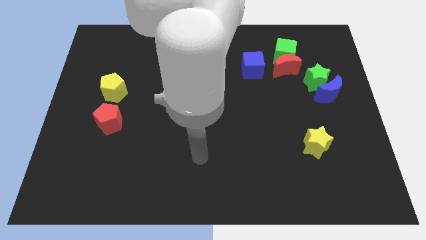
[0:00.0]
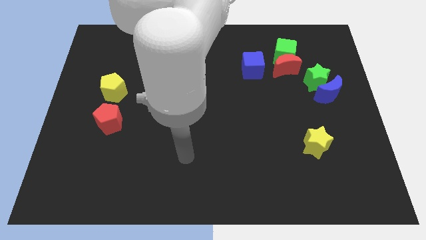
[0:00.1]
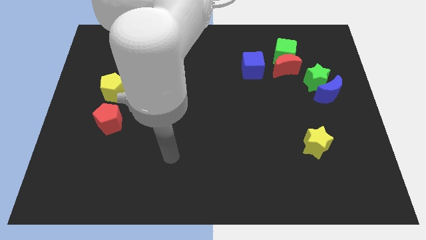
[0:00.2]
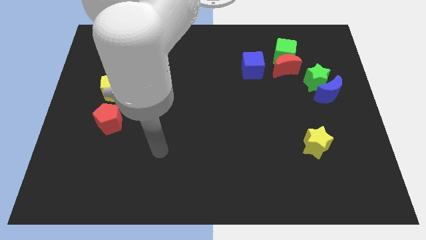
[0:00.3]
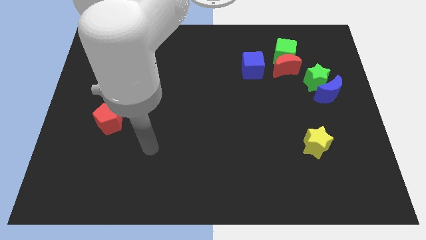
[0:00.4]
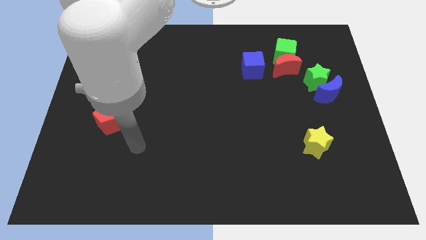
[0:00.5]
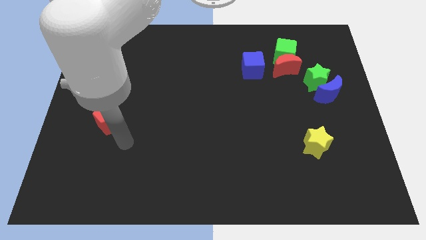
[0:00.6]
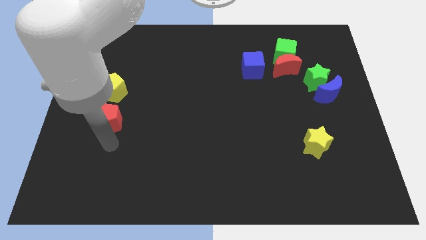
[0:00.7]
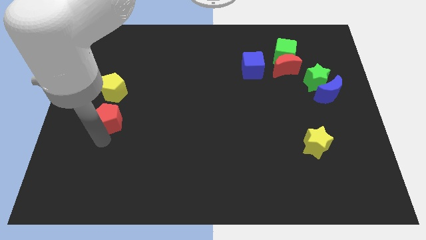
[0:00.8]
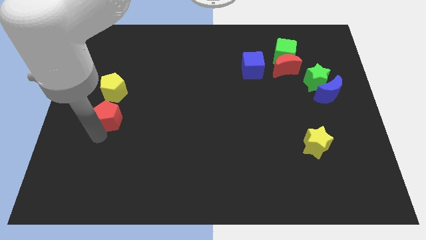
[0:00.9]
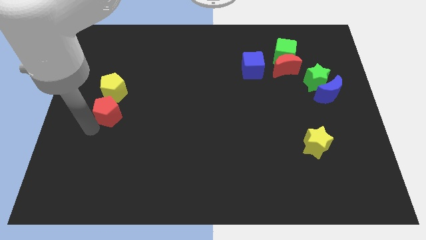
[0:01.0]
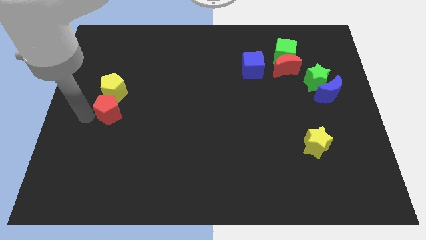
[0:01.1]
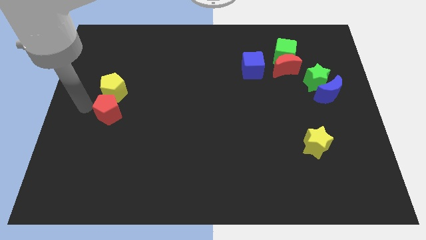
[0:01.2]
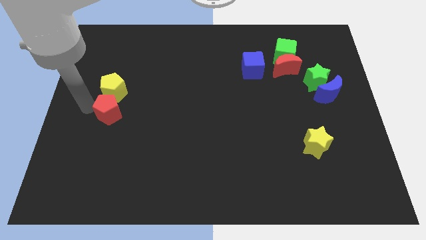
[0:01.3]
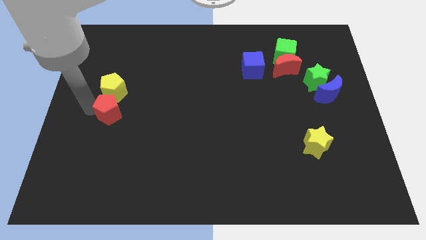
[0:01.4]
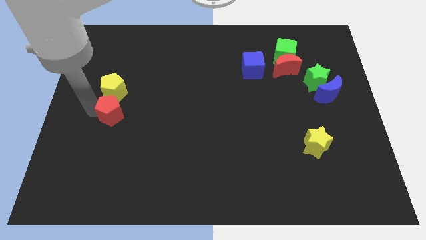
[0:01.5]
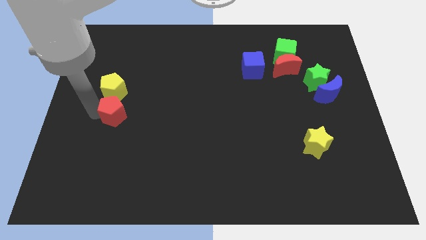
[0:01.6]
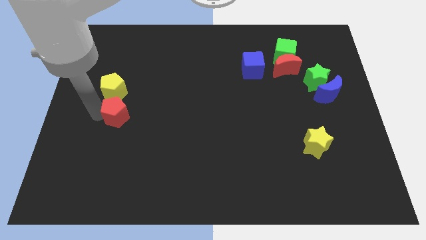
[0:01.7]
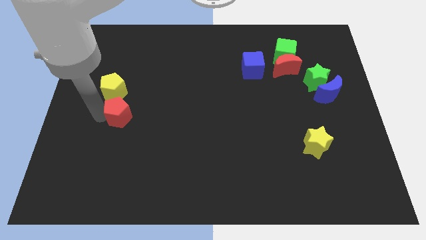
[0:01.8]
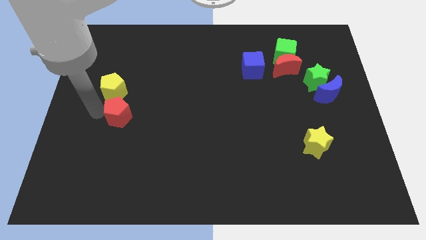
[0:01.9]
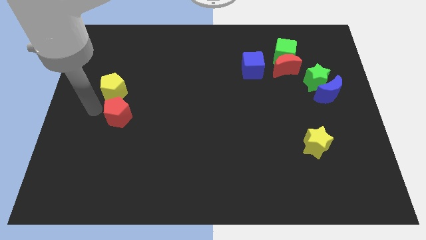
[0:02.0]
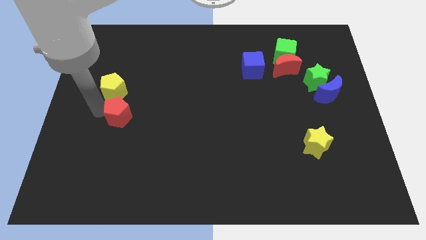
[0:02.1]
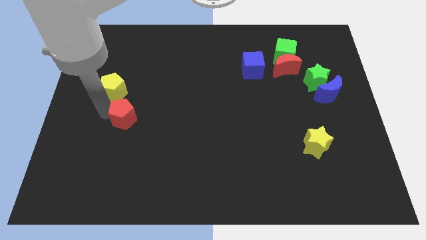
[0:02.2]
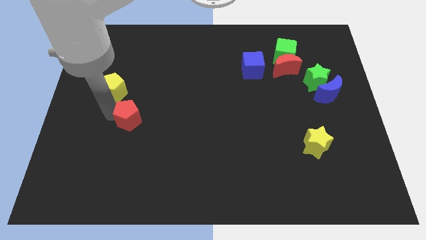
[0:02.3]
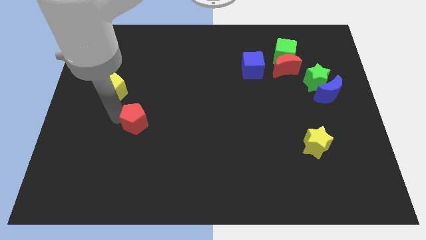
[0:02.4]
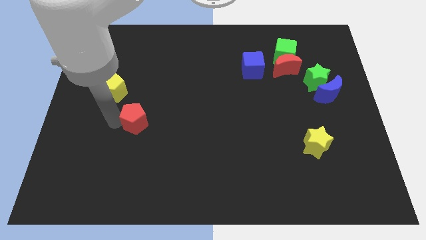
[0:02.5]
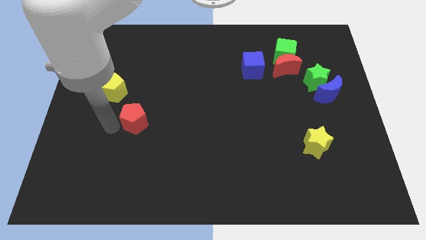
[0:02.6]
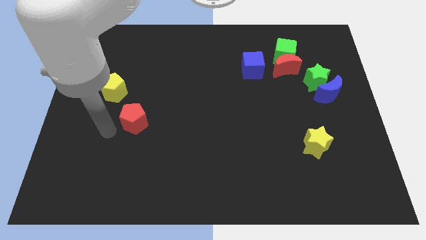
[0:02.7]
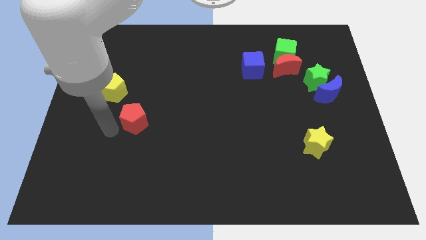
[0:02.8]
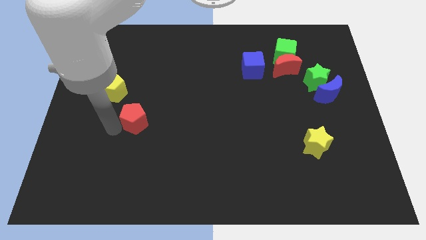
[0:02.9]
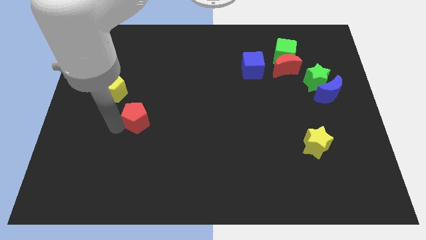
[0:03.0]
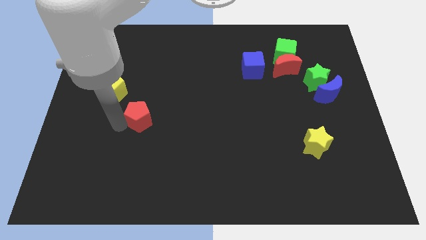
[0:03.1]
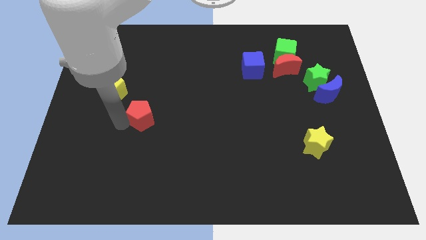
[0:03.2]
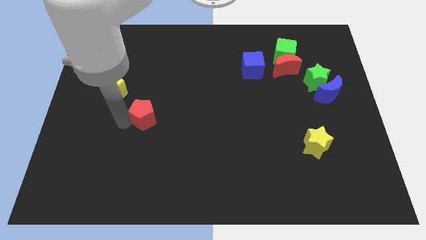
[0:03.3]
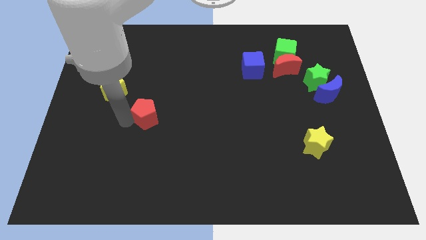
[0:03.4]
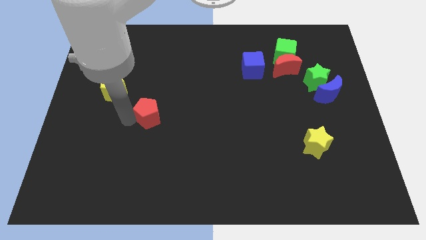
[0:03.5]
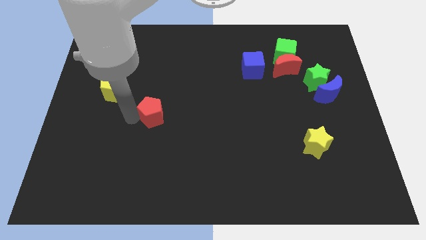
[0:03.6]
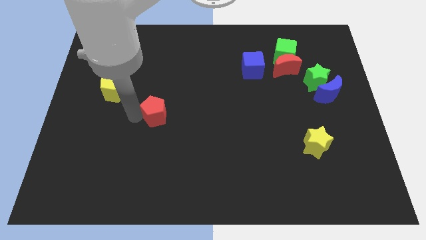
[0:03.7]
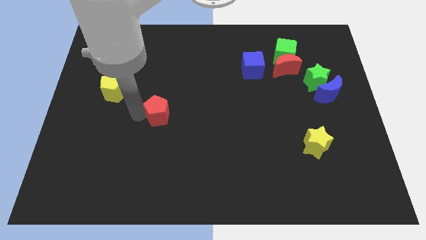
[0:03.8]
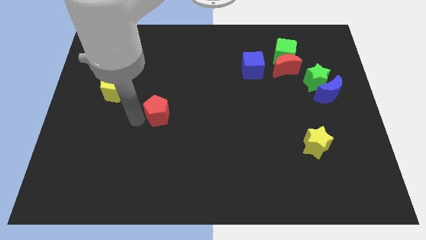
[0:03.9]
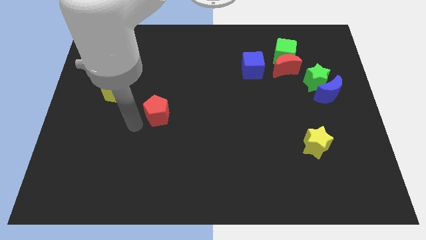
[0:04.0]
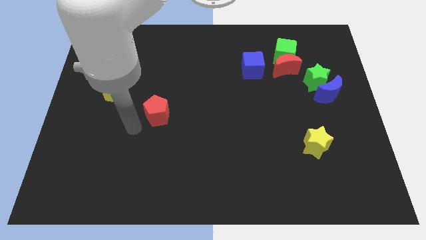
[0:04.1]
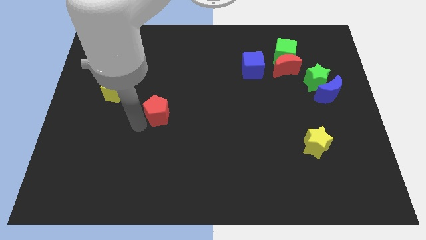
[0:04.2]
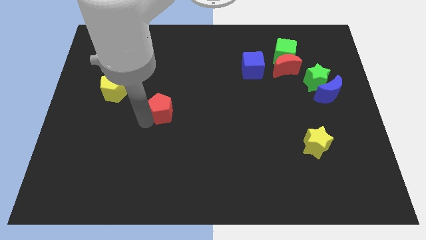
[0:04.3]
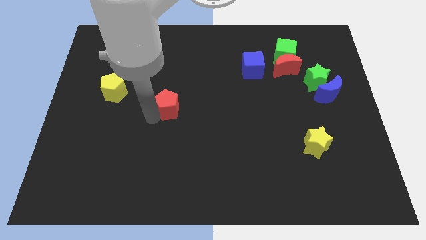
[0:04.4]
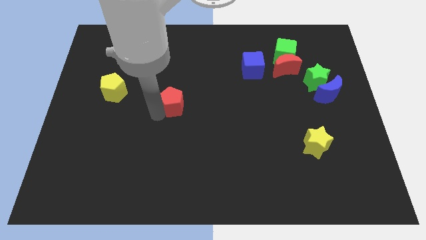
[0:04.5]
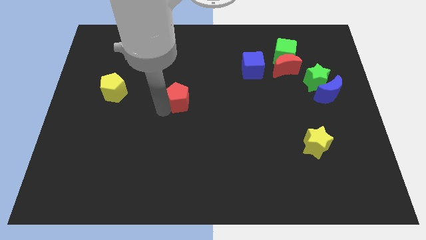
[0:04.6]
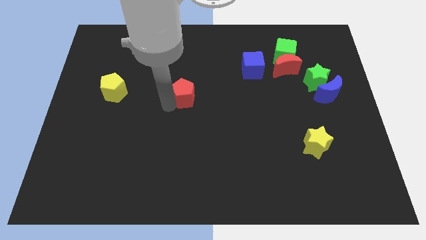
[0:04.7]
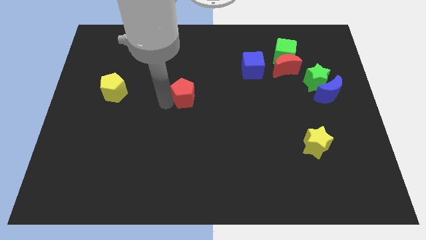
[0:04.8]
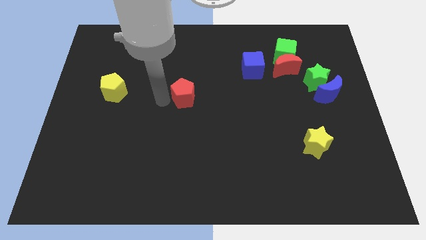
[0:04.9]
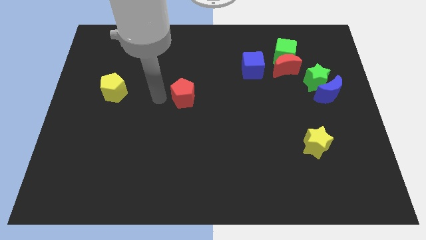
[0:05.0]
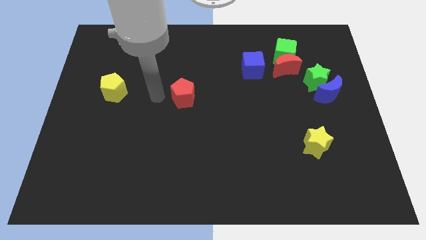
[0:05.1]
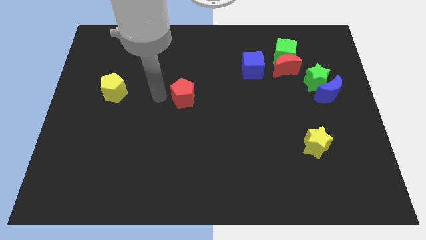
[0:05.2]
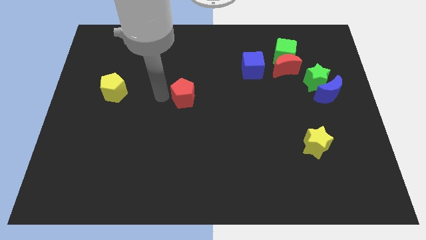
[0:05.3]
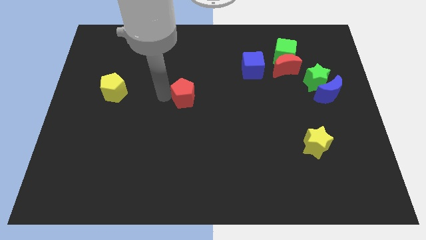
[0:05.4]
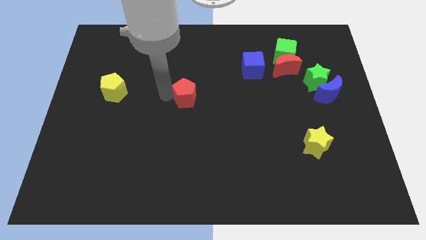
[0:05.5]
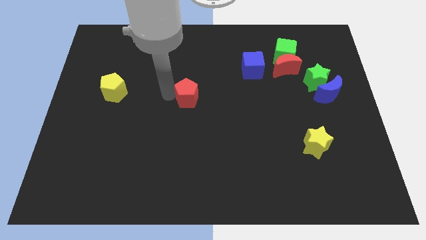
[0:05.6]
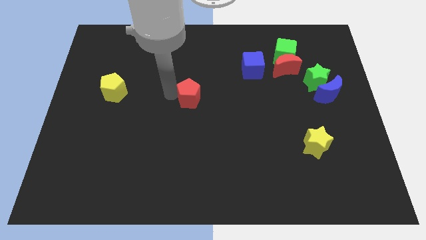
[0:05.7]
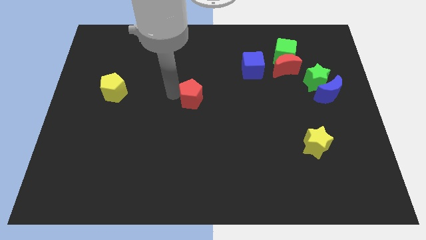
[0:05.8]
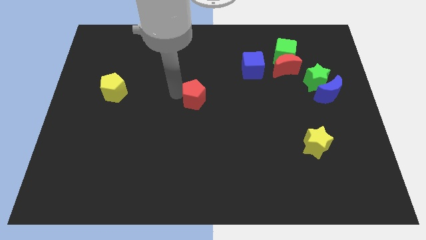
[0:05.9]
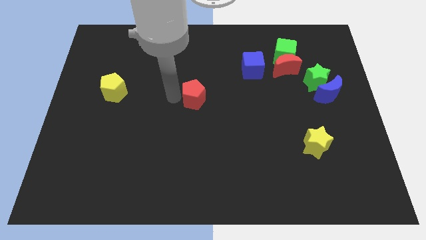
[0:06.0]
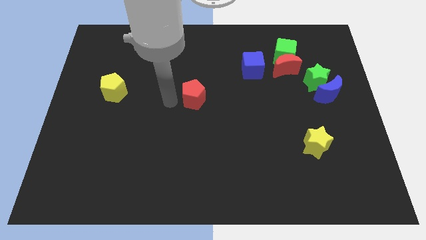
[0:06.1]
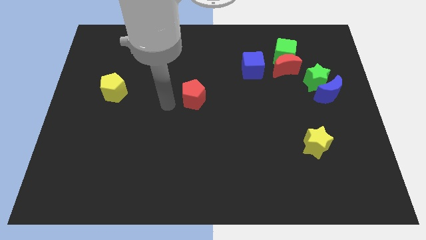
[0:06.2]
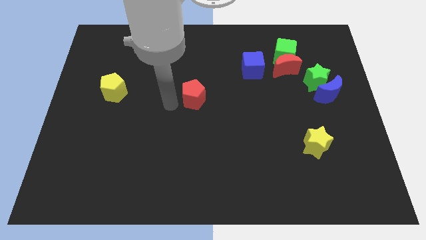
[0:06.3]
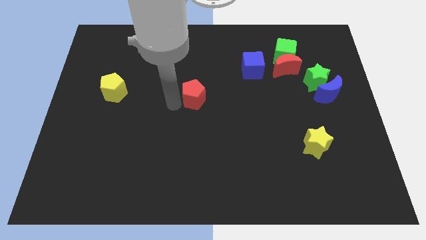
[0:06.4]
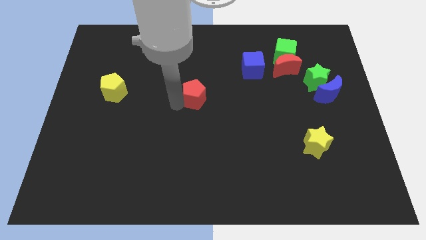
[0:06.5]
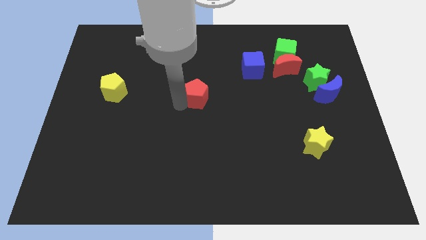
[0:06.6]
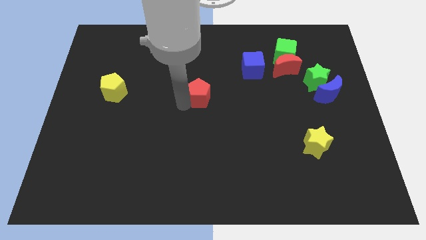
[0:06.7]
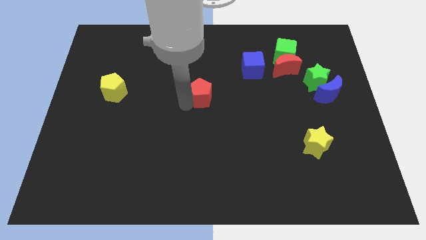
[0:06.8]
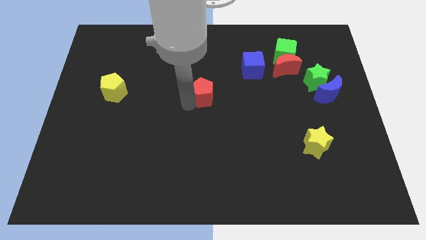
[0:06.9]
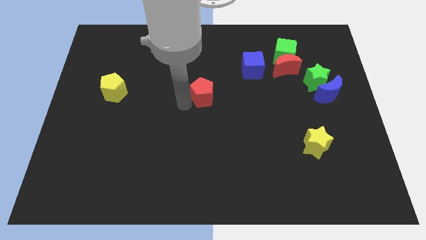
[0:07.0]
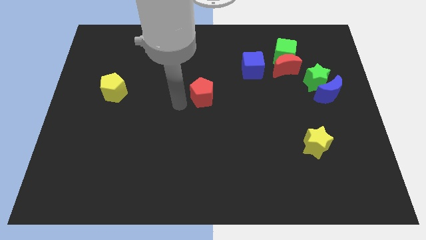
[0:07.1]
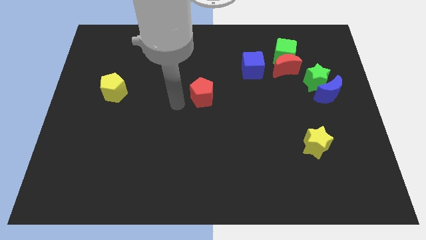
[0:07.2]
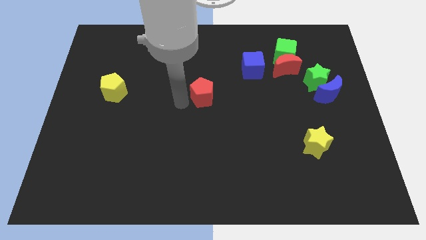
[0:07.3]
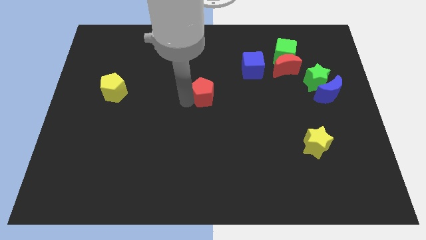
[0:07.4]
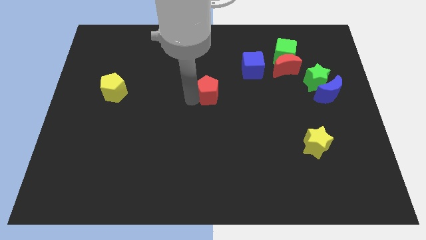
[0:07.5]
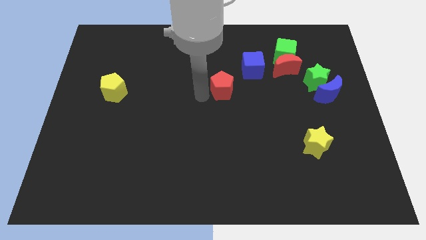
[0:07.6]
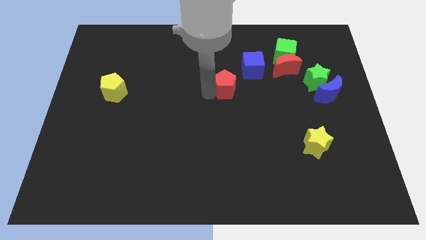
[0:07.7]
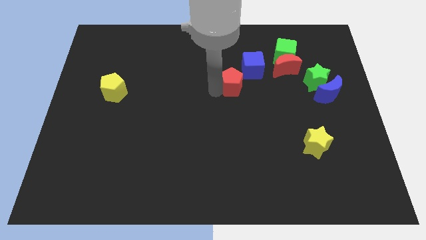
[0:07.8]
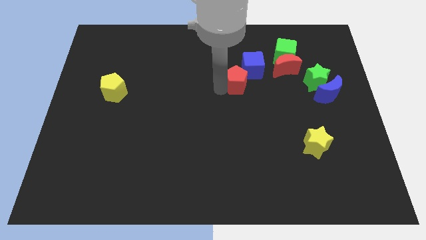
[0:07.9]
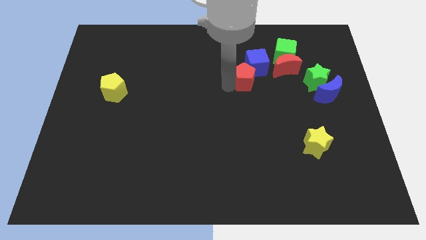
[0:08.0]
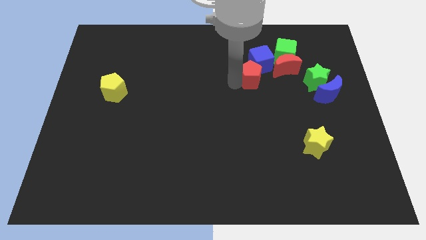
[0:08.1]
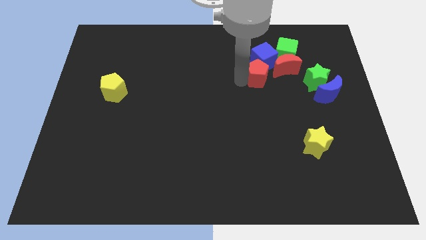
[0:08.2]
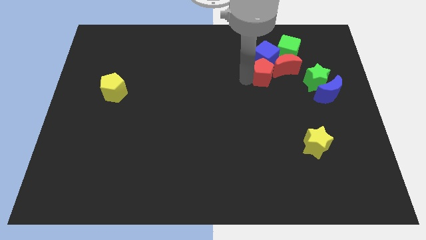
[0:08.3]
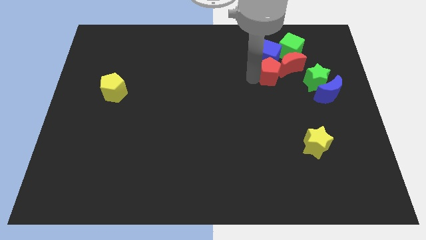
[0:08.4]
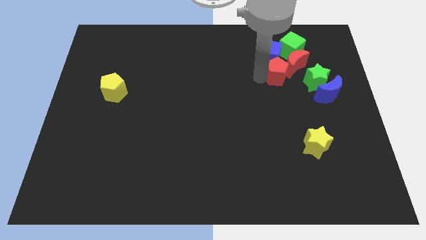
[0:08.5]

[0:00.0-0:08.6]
push the red pentagon to the red moon
